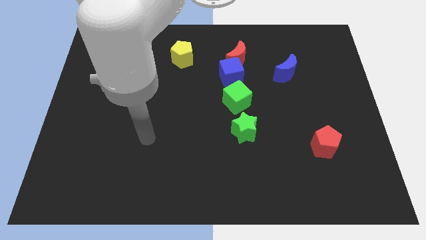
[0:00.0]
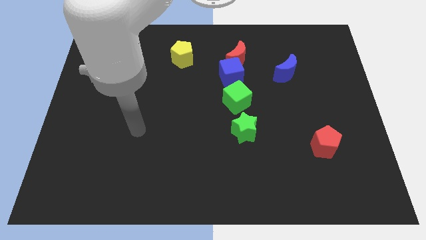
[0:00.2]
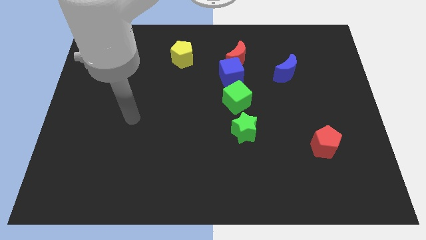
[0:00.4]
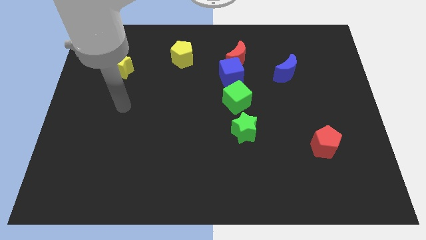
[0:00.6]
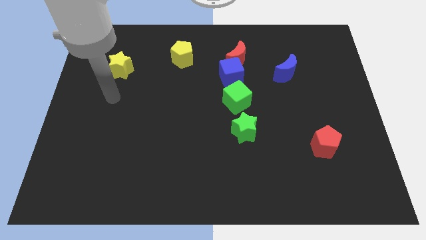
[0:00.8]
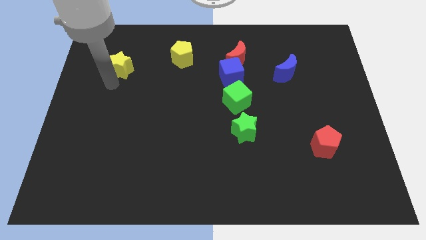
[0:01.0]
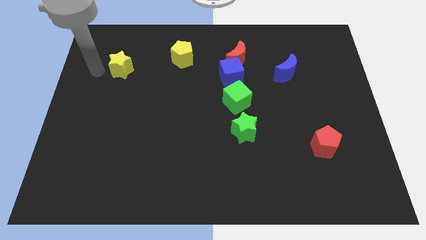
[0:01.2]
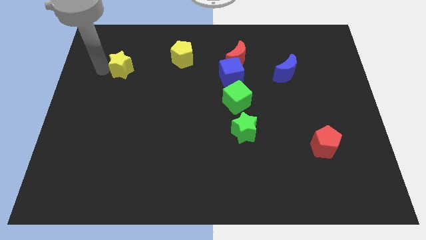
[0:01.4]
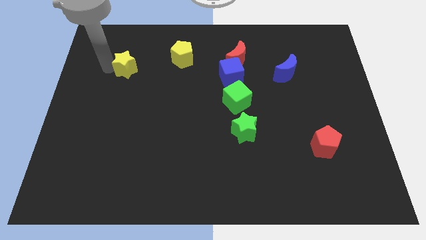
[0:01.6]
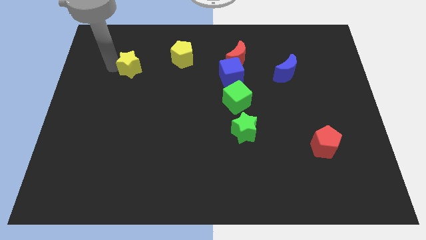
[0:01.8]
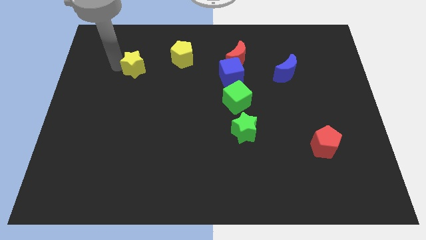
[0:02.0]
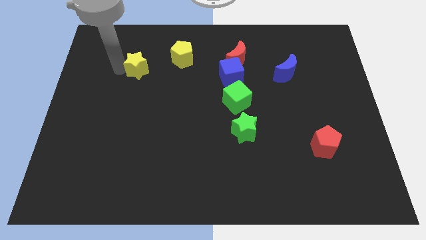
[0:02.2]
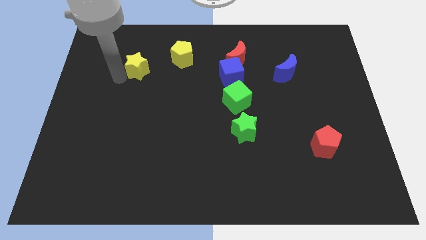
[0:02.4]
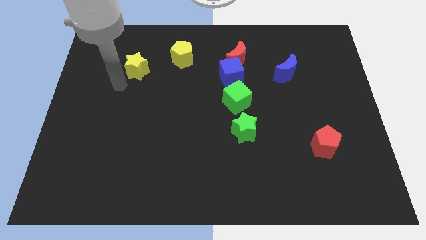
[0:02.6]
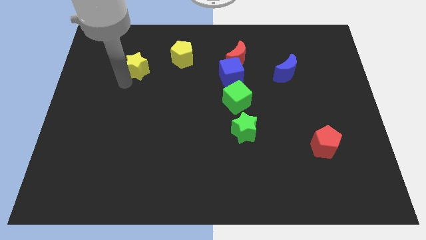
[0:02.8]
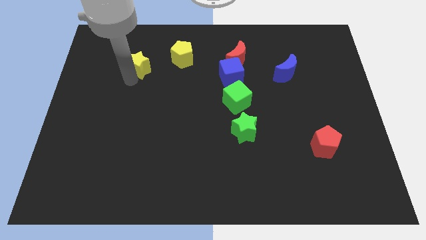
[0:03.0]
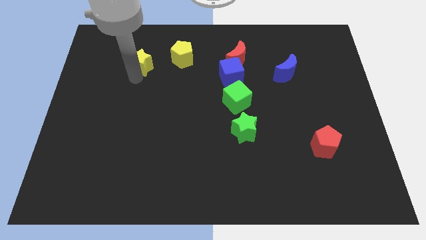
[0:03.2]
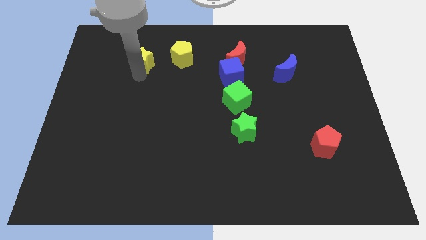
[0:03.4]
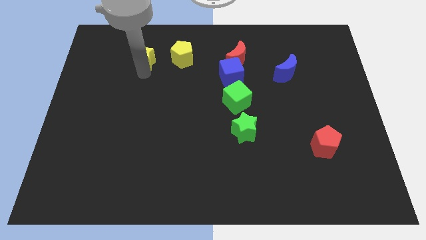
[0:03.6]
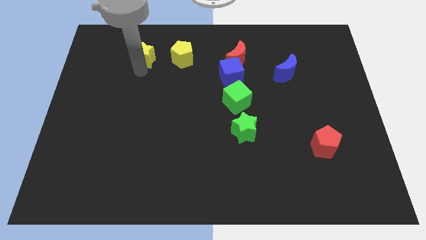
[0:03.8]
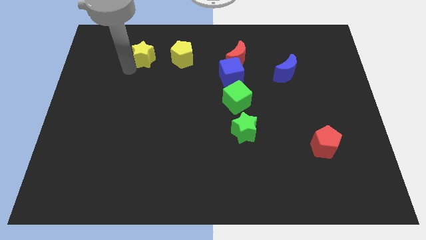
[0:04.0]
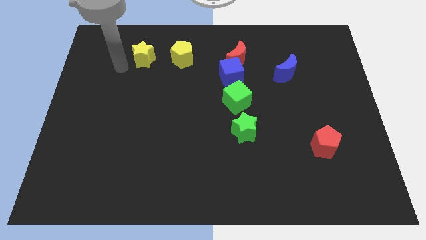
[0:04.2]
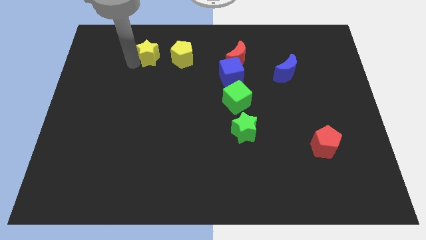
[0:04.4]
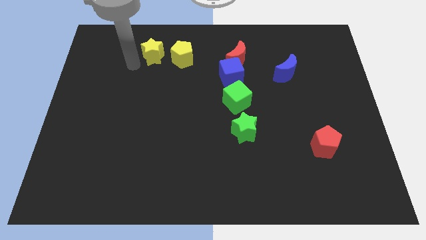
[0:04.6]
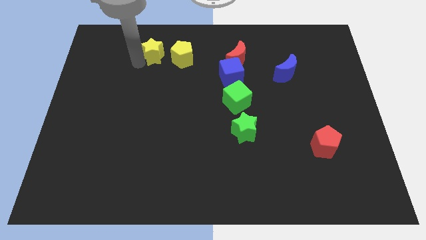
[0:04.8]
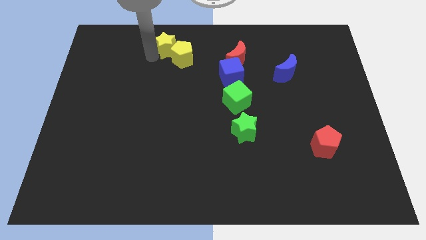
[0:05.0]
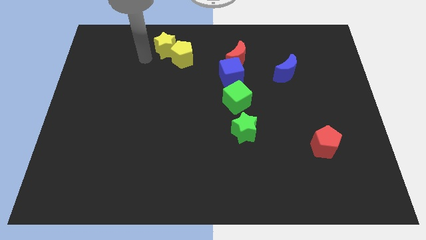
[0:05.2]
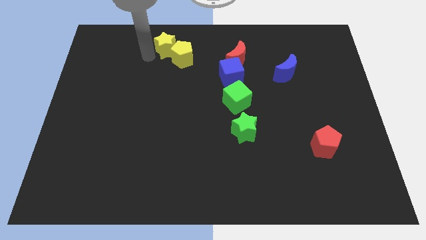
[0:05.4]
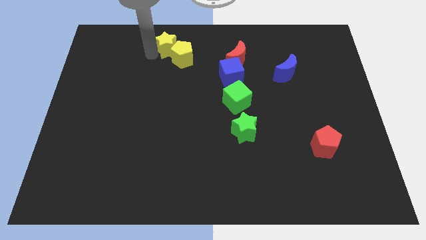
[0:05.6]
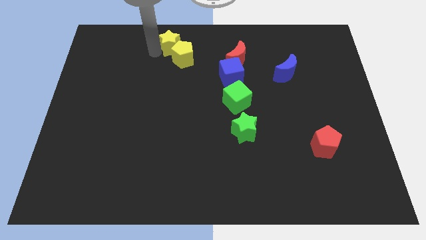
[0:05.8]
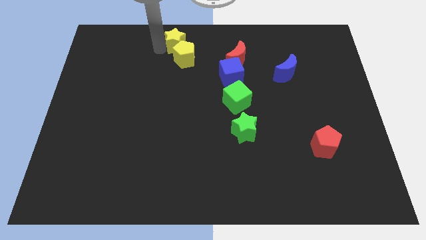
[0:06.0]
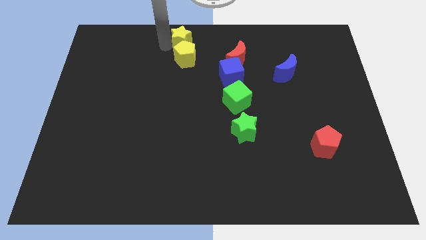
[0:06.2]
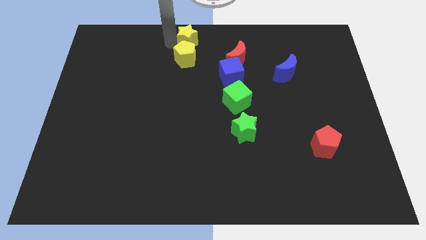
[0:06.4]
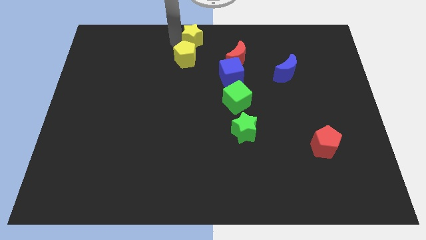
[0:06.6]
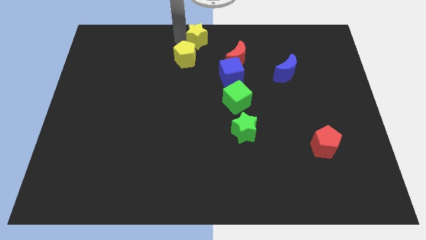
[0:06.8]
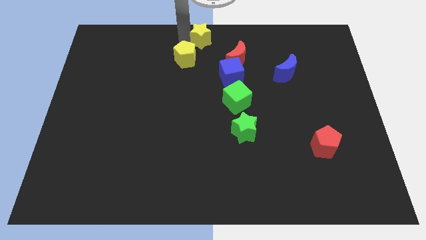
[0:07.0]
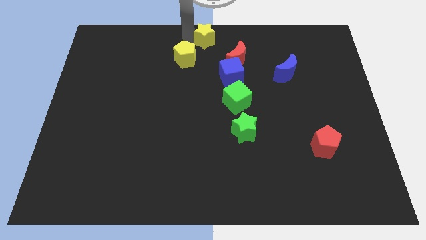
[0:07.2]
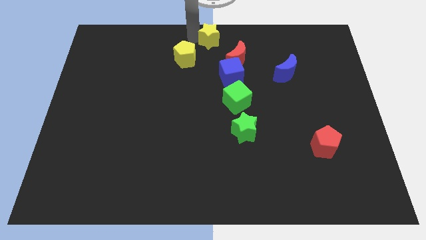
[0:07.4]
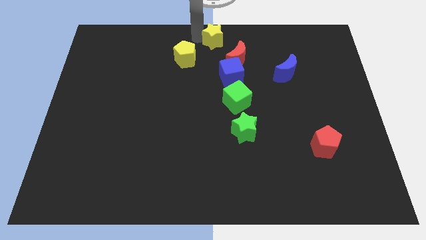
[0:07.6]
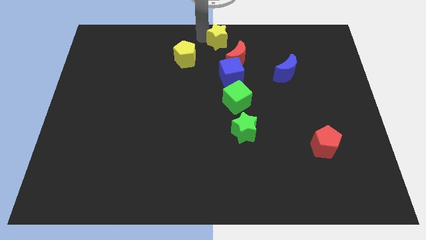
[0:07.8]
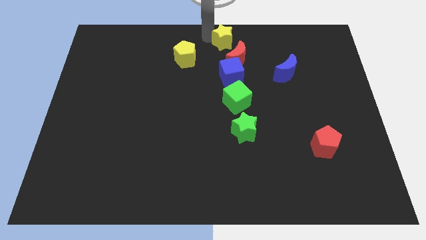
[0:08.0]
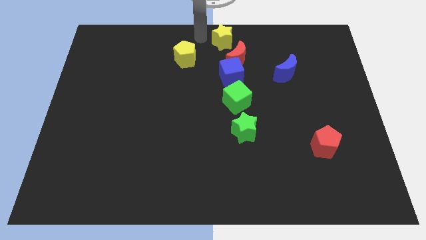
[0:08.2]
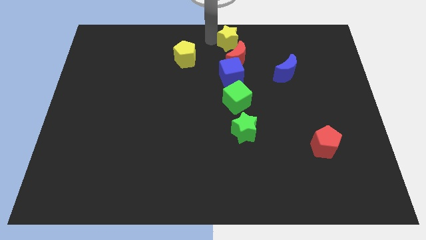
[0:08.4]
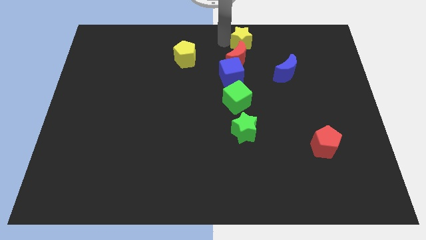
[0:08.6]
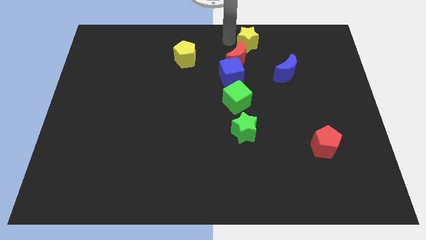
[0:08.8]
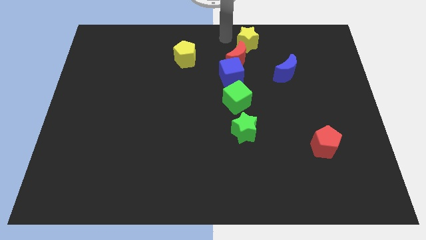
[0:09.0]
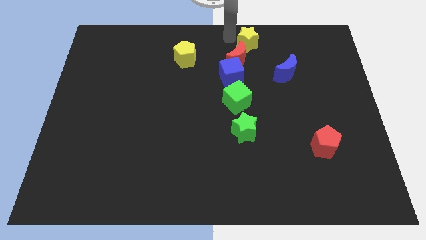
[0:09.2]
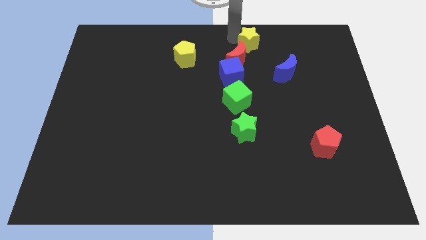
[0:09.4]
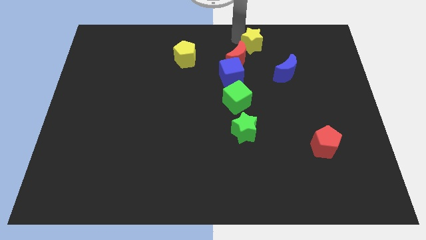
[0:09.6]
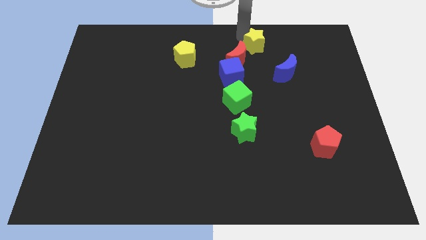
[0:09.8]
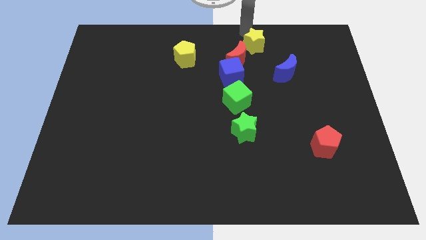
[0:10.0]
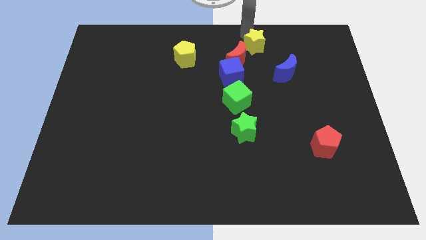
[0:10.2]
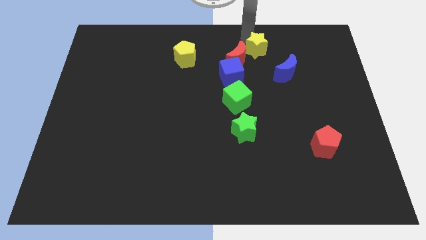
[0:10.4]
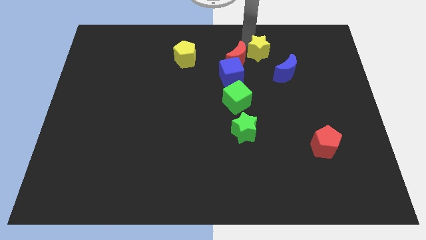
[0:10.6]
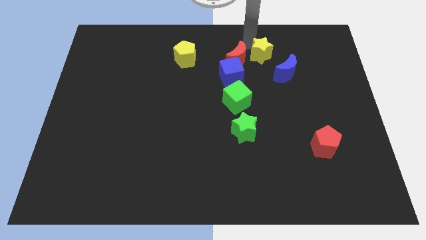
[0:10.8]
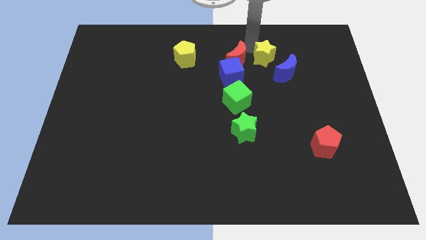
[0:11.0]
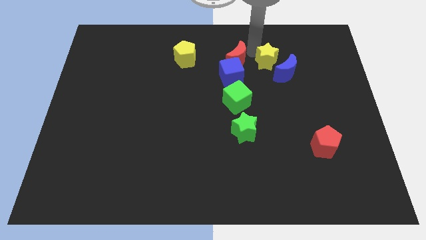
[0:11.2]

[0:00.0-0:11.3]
put the yellow star to the blue moon

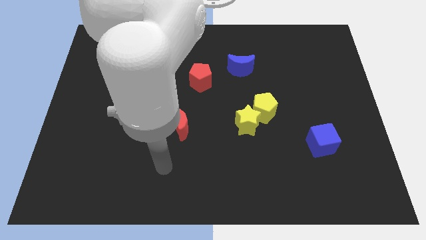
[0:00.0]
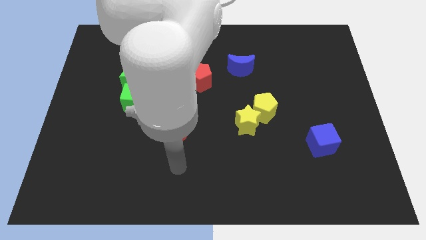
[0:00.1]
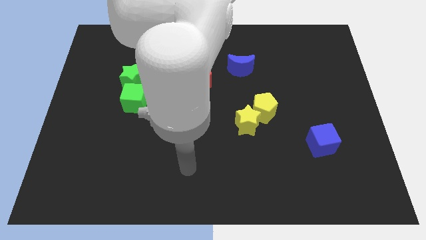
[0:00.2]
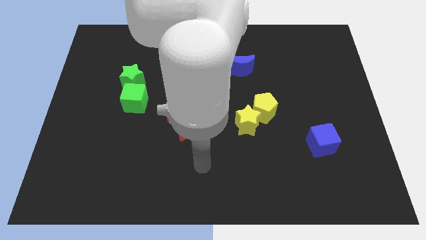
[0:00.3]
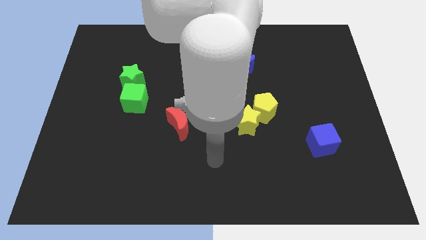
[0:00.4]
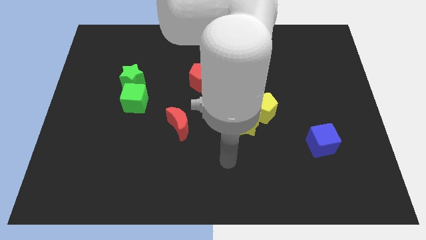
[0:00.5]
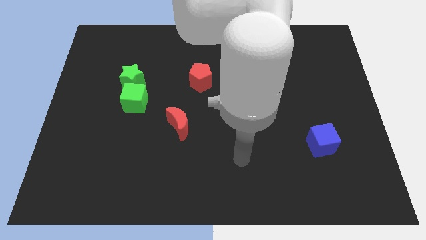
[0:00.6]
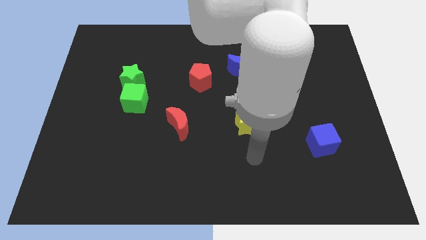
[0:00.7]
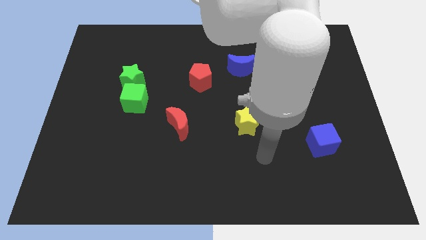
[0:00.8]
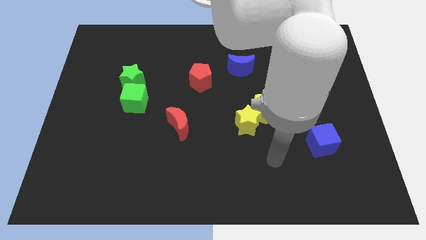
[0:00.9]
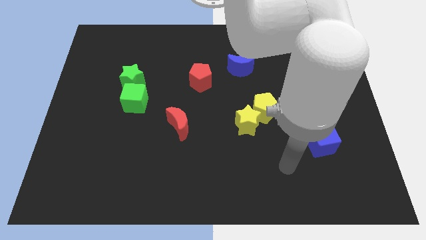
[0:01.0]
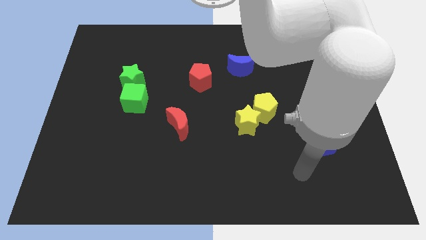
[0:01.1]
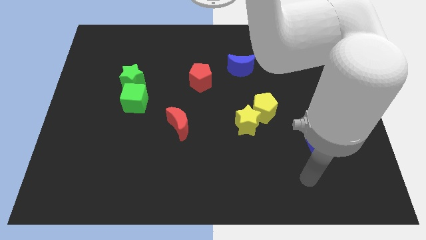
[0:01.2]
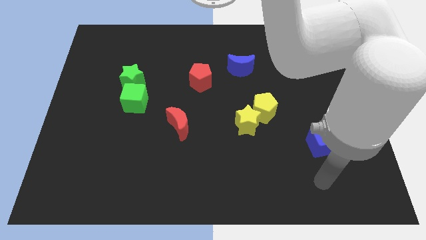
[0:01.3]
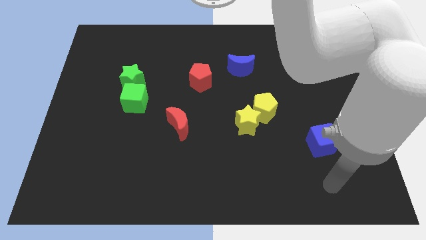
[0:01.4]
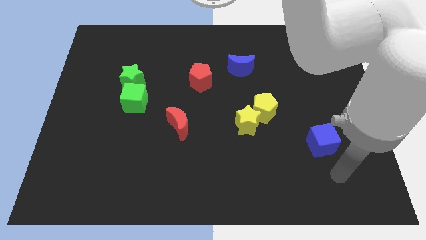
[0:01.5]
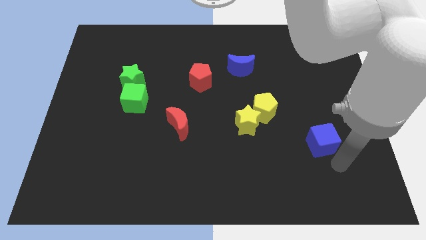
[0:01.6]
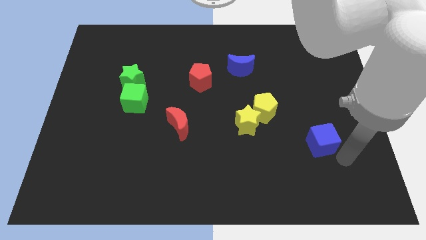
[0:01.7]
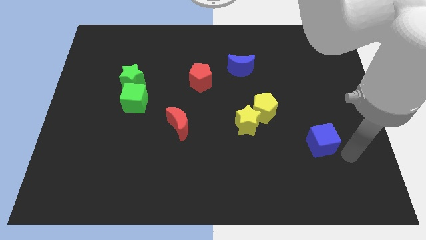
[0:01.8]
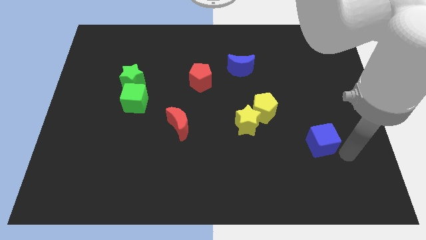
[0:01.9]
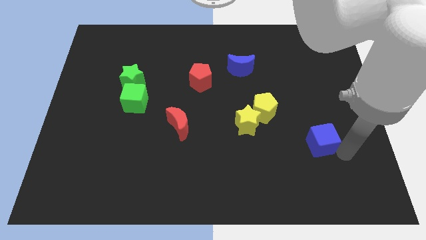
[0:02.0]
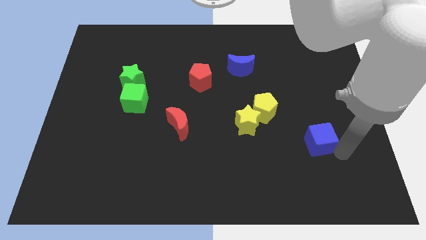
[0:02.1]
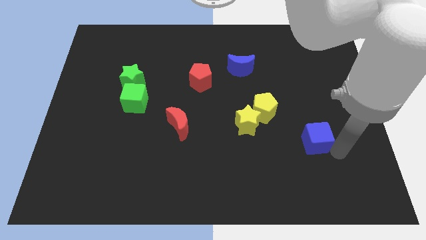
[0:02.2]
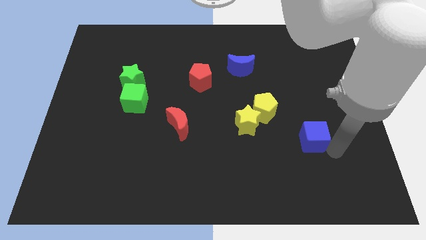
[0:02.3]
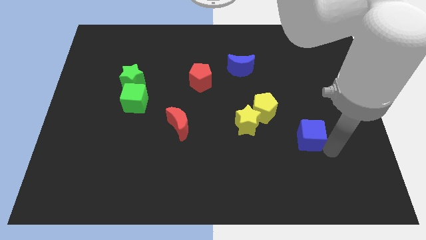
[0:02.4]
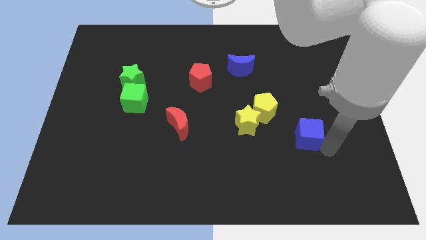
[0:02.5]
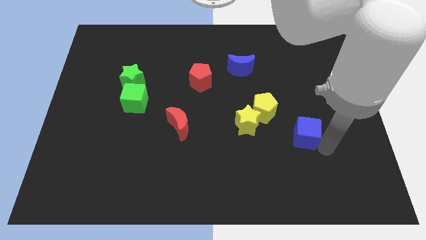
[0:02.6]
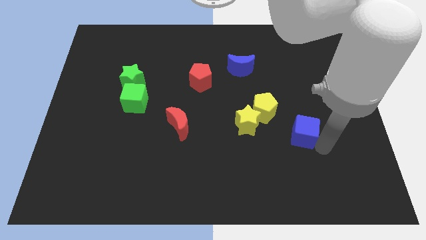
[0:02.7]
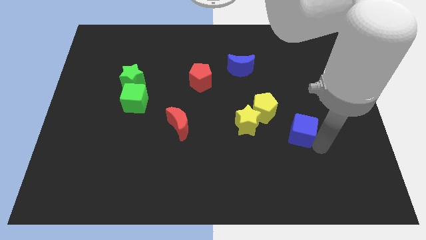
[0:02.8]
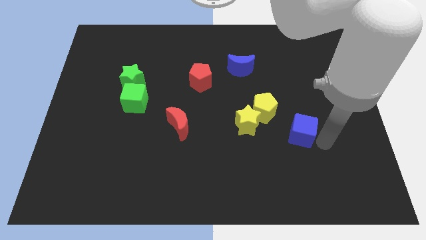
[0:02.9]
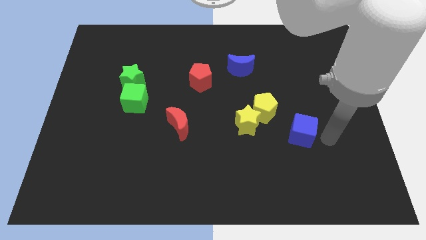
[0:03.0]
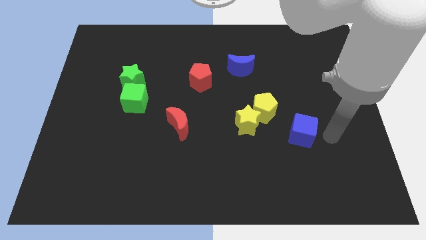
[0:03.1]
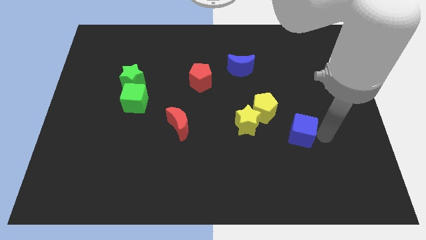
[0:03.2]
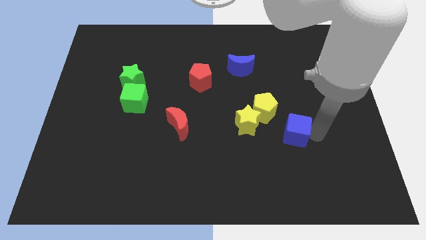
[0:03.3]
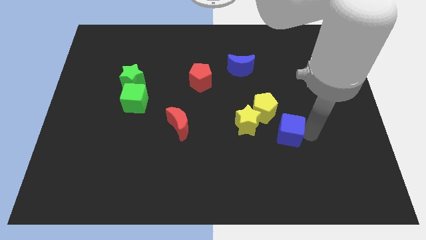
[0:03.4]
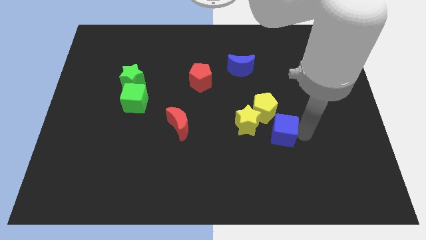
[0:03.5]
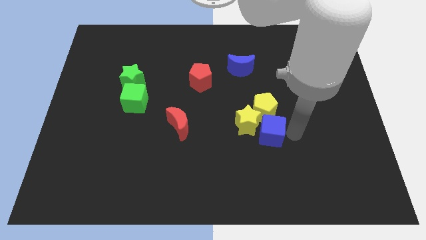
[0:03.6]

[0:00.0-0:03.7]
push the blue cube towards the yellow star
